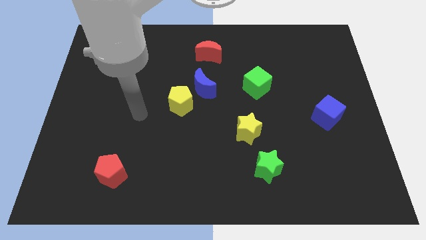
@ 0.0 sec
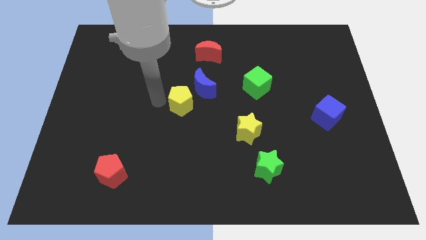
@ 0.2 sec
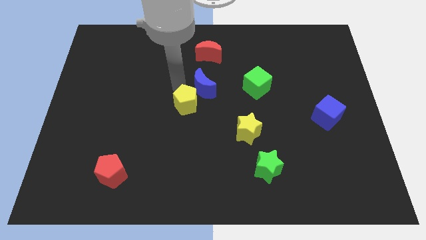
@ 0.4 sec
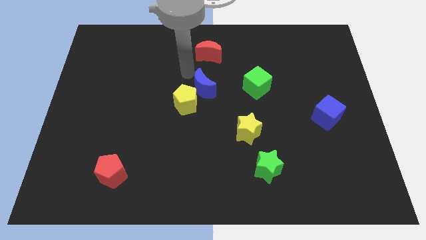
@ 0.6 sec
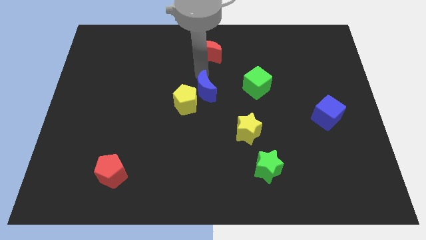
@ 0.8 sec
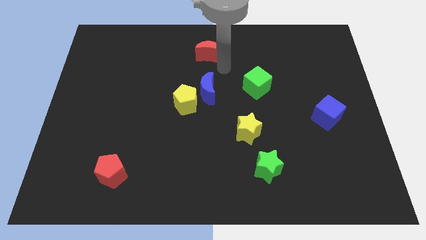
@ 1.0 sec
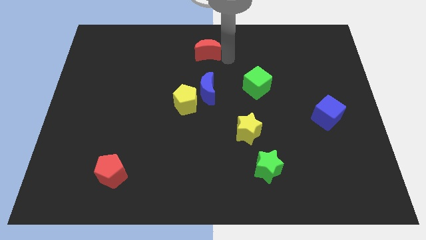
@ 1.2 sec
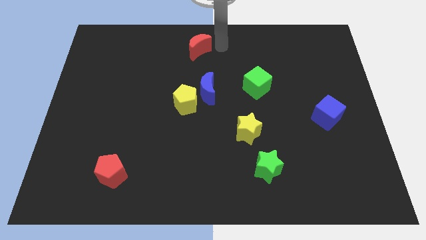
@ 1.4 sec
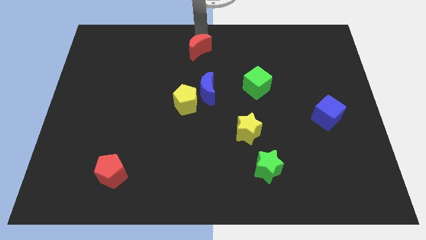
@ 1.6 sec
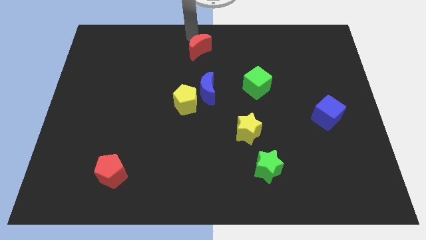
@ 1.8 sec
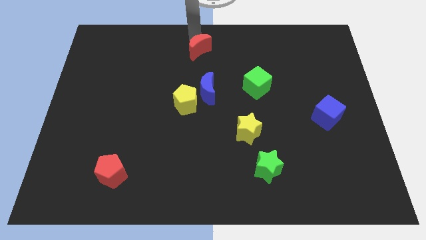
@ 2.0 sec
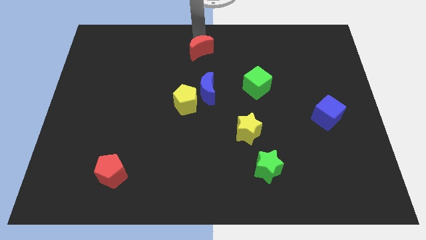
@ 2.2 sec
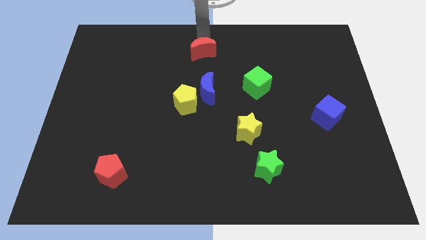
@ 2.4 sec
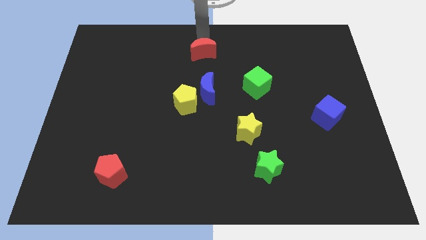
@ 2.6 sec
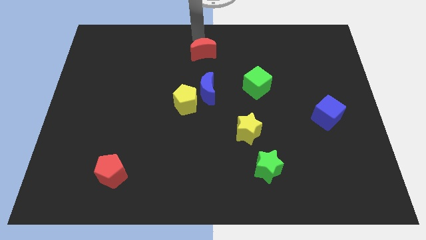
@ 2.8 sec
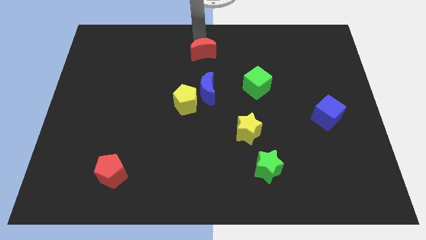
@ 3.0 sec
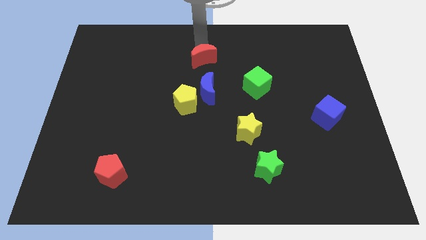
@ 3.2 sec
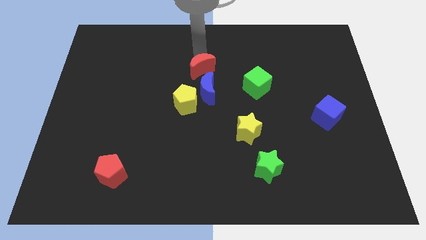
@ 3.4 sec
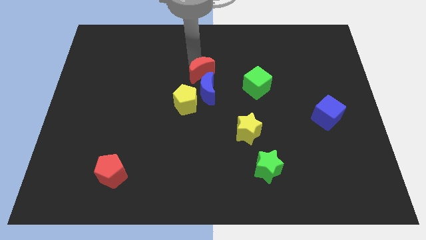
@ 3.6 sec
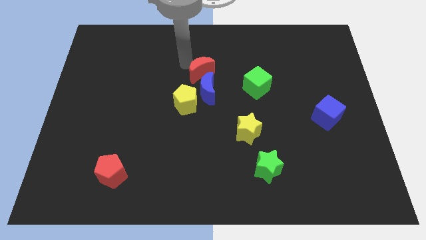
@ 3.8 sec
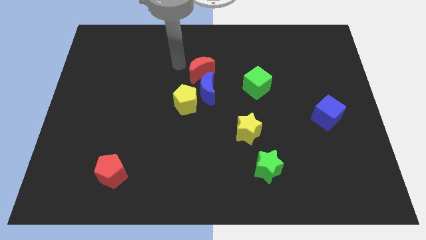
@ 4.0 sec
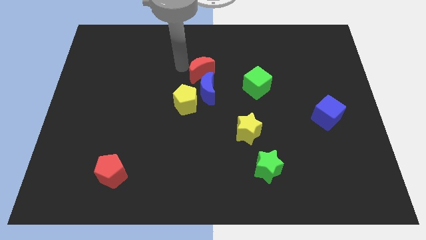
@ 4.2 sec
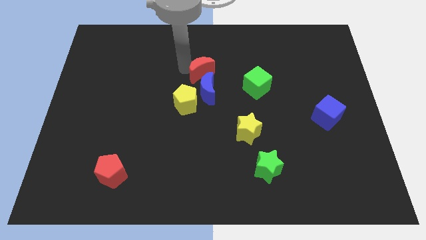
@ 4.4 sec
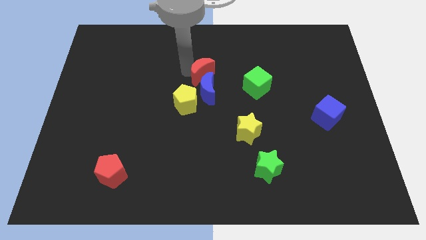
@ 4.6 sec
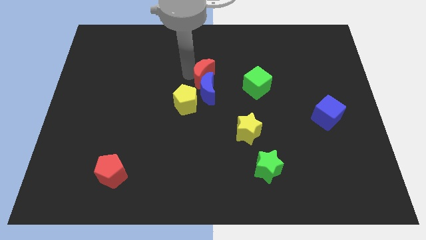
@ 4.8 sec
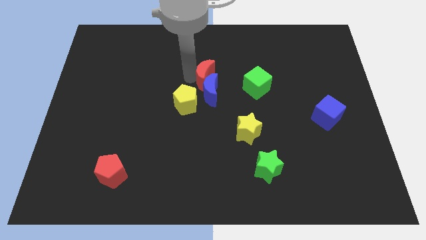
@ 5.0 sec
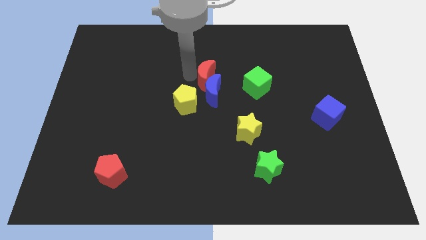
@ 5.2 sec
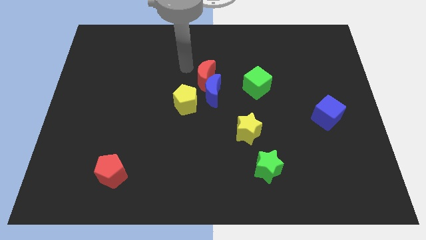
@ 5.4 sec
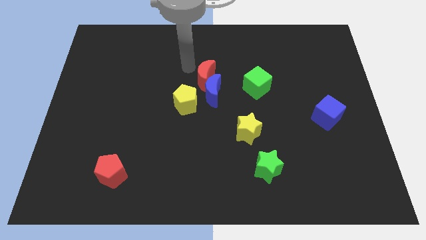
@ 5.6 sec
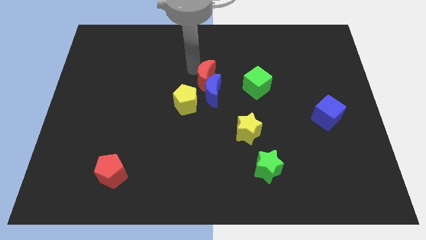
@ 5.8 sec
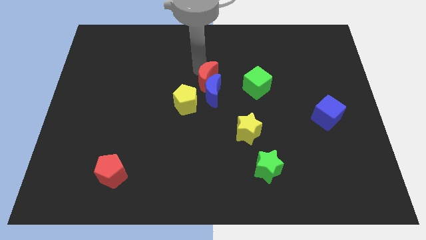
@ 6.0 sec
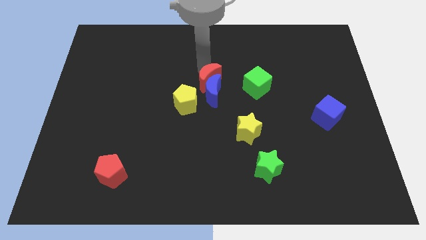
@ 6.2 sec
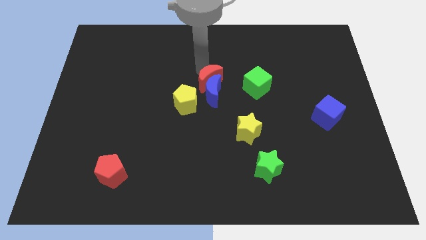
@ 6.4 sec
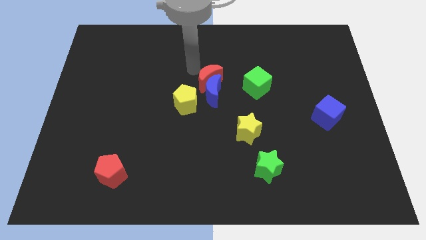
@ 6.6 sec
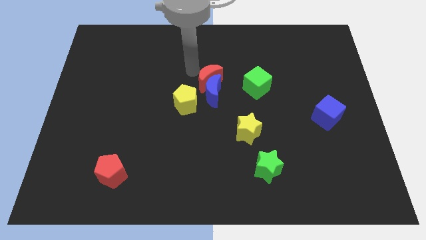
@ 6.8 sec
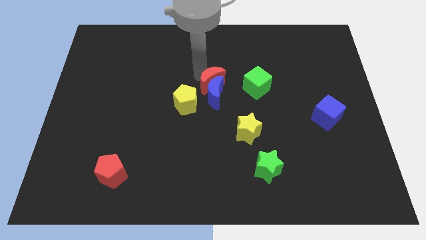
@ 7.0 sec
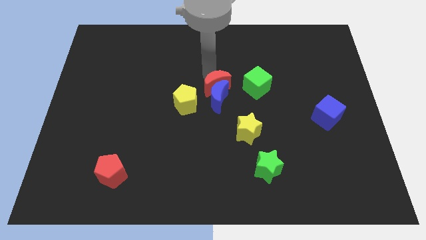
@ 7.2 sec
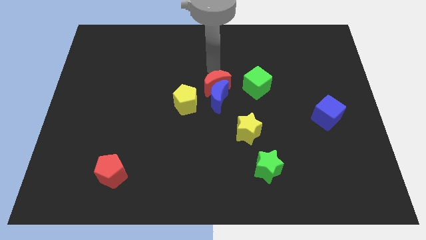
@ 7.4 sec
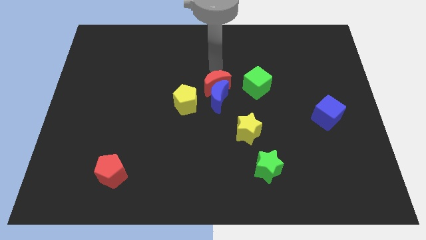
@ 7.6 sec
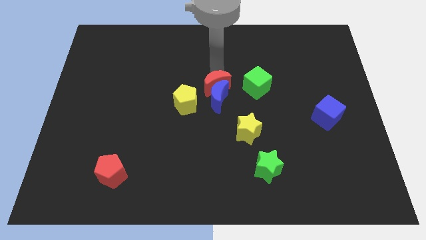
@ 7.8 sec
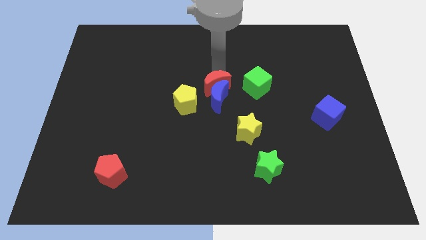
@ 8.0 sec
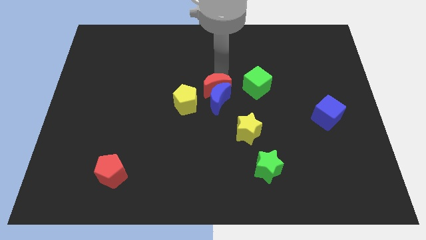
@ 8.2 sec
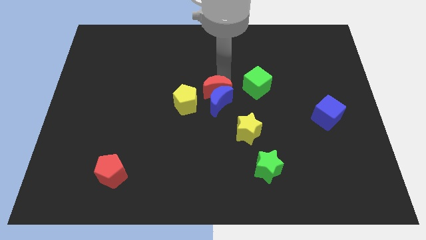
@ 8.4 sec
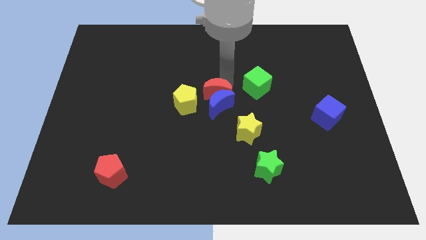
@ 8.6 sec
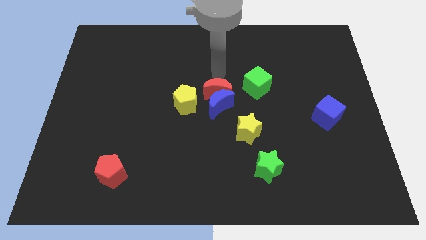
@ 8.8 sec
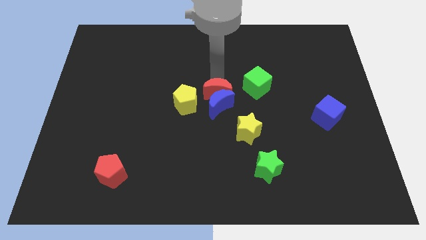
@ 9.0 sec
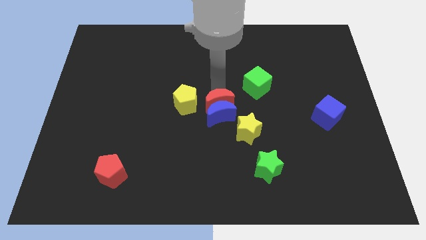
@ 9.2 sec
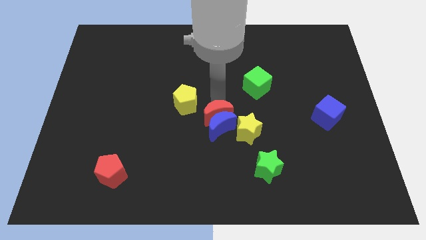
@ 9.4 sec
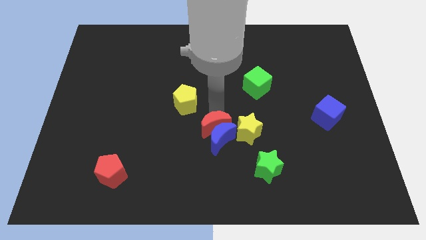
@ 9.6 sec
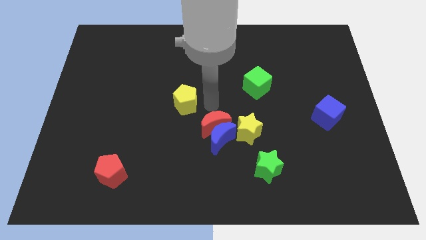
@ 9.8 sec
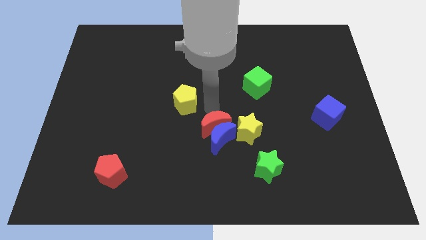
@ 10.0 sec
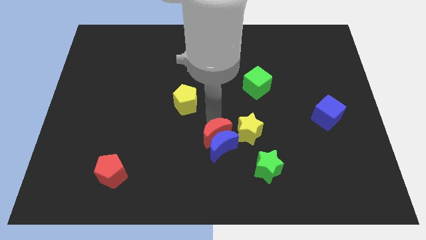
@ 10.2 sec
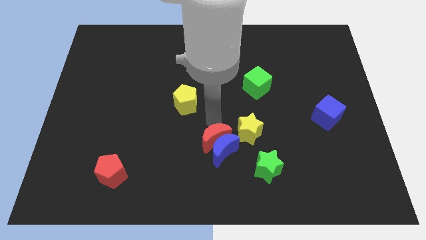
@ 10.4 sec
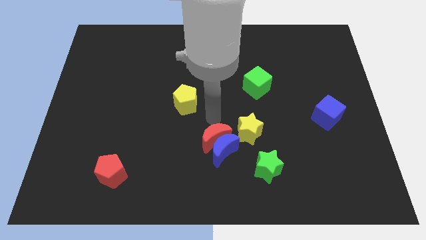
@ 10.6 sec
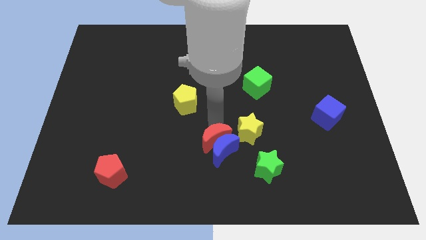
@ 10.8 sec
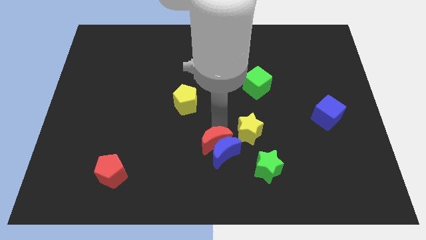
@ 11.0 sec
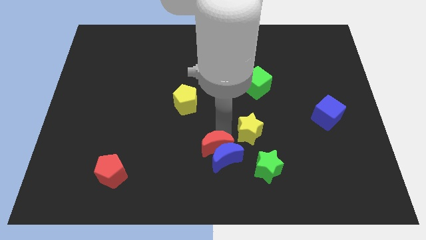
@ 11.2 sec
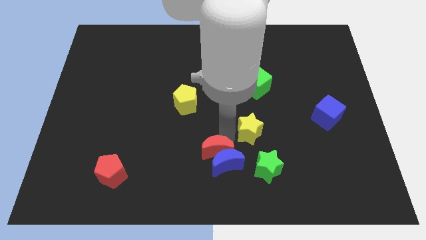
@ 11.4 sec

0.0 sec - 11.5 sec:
push the red moon to the left of the green star
